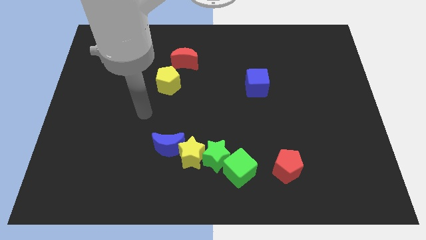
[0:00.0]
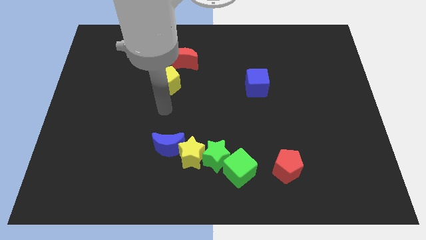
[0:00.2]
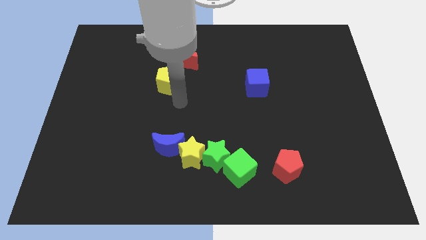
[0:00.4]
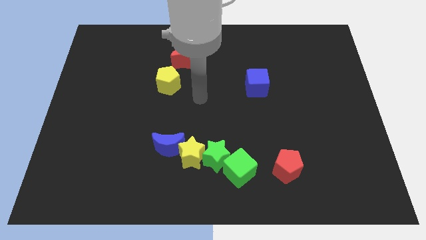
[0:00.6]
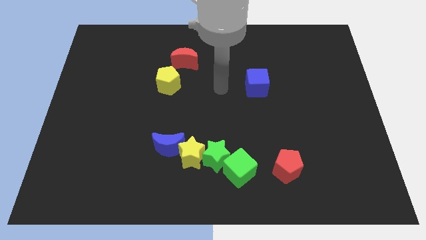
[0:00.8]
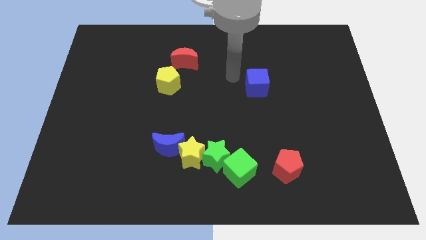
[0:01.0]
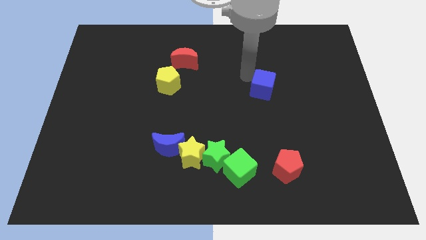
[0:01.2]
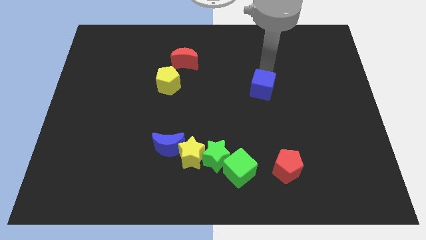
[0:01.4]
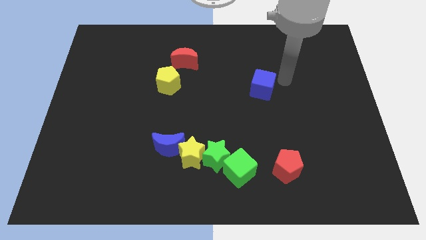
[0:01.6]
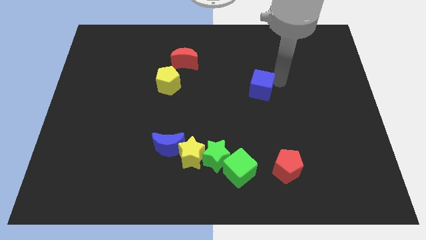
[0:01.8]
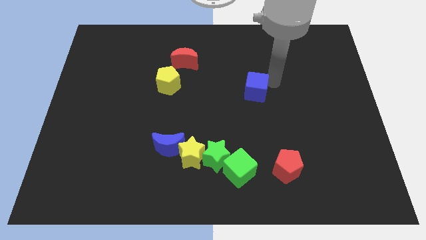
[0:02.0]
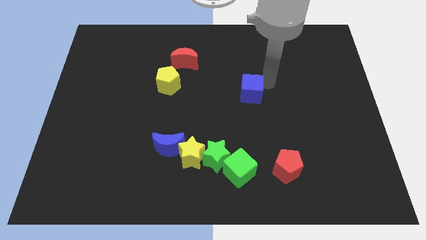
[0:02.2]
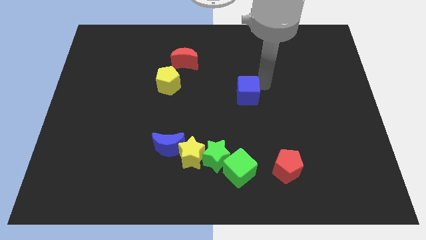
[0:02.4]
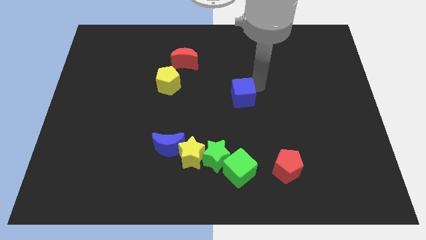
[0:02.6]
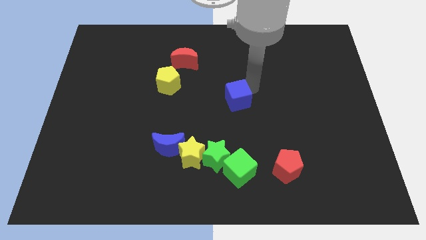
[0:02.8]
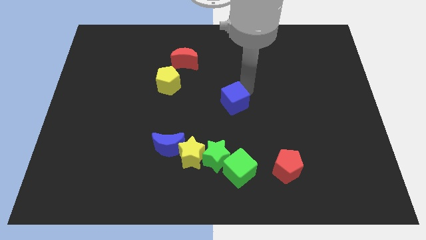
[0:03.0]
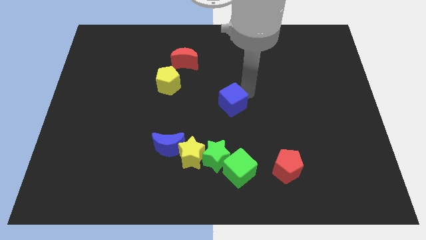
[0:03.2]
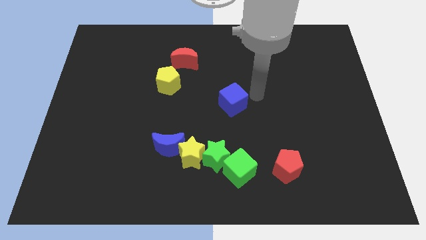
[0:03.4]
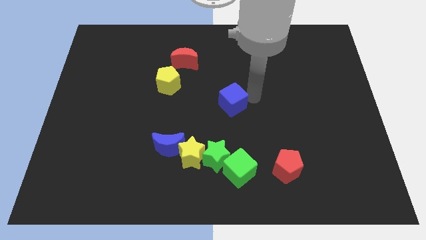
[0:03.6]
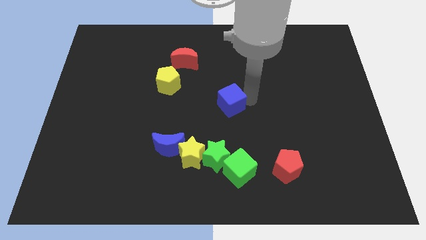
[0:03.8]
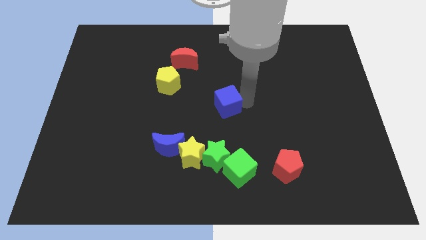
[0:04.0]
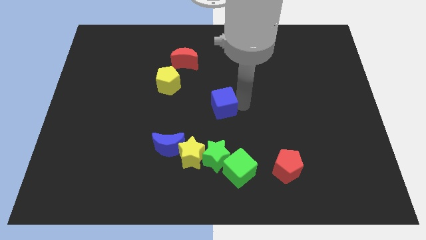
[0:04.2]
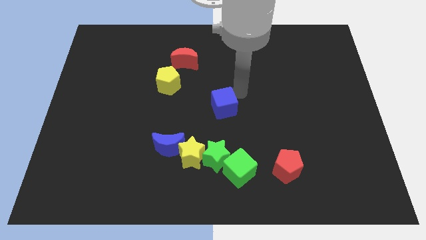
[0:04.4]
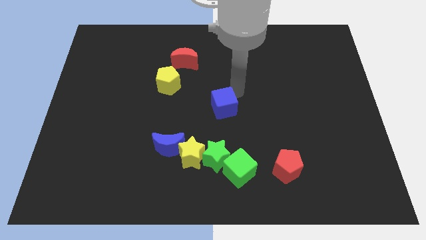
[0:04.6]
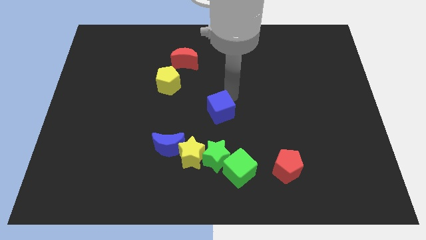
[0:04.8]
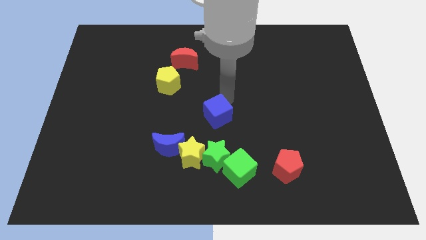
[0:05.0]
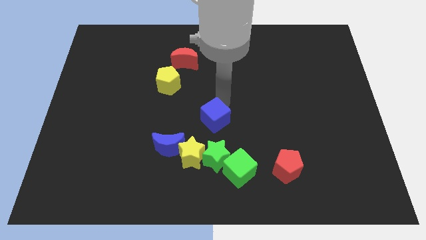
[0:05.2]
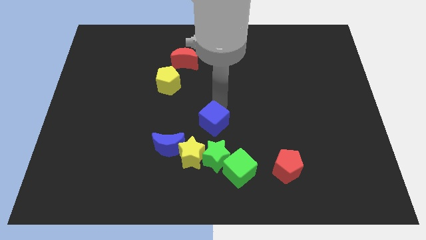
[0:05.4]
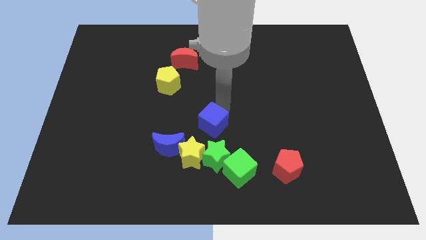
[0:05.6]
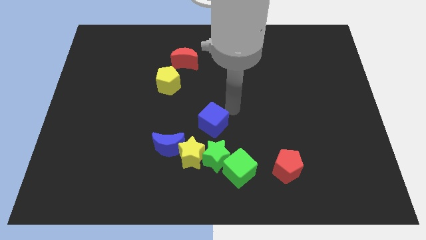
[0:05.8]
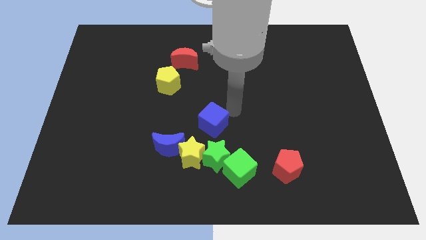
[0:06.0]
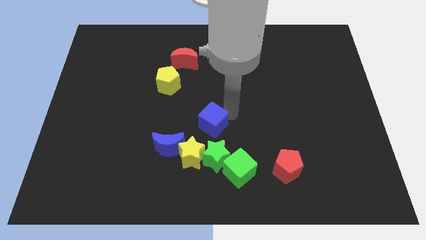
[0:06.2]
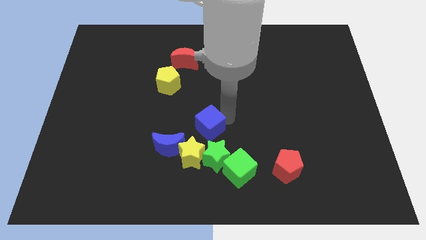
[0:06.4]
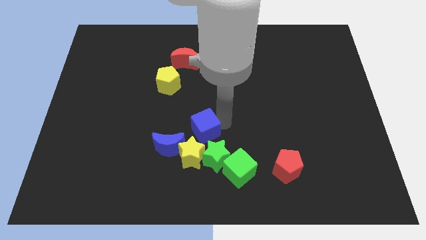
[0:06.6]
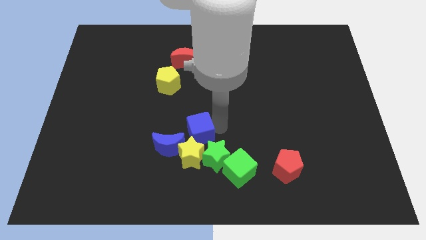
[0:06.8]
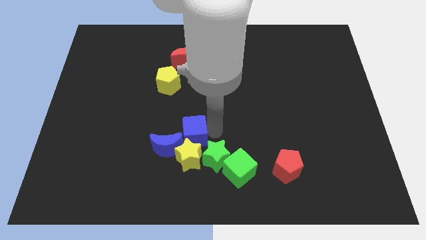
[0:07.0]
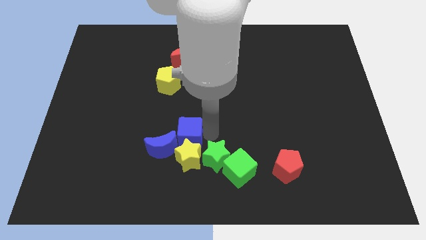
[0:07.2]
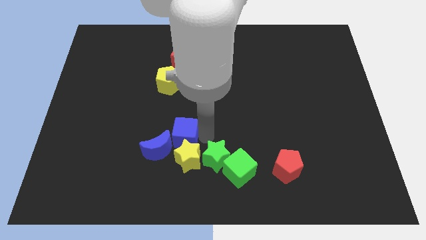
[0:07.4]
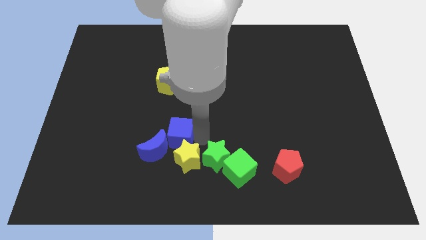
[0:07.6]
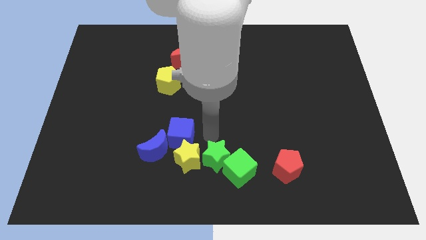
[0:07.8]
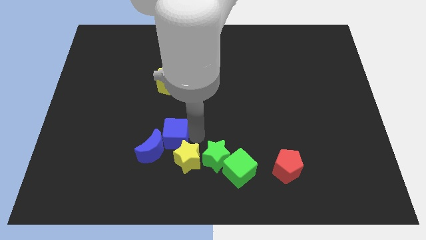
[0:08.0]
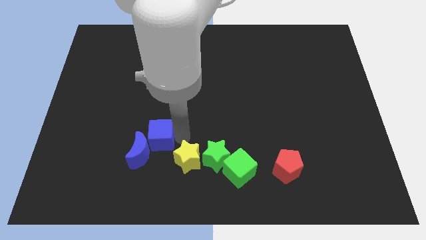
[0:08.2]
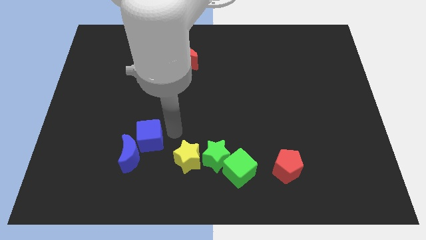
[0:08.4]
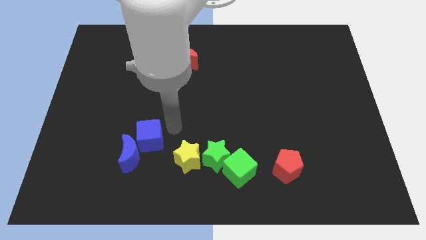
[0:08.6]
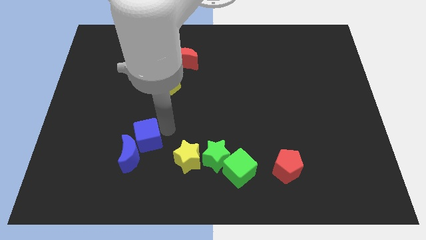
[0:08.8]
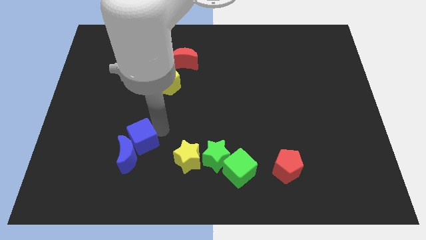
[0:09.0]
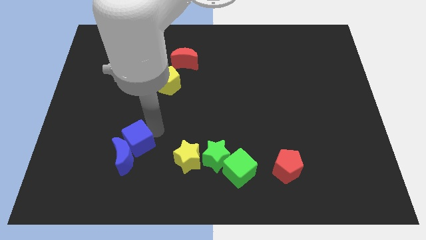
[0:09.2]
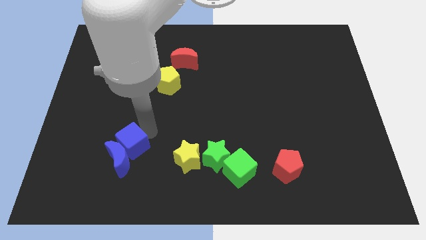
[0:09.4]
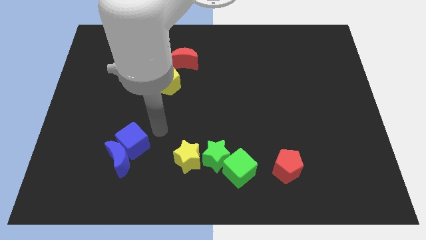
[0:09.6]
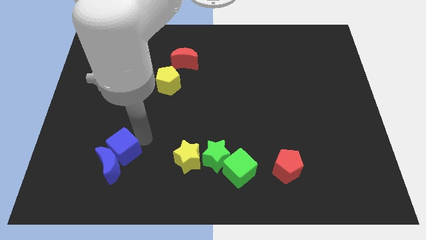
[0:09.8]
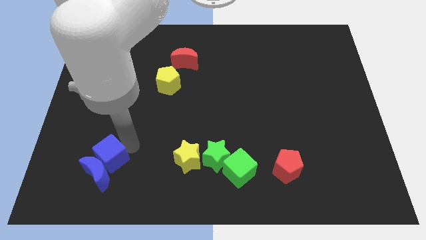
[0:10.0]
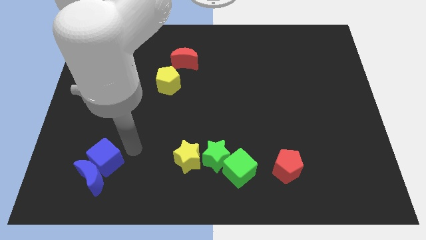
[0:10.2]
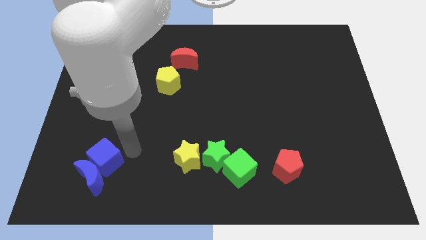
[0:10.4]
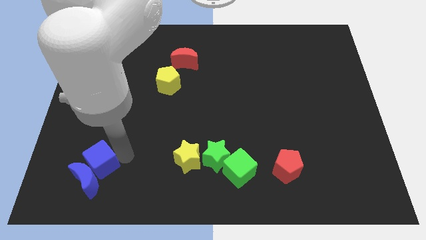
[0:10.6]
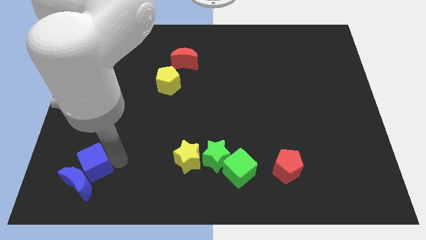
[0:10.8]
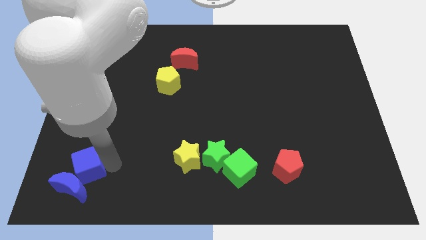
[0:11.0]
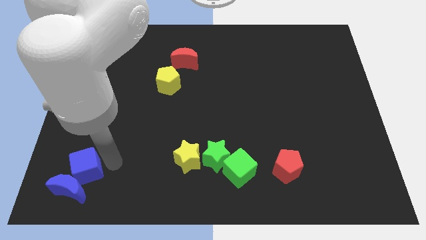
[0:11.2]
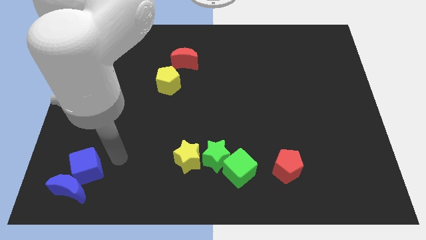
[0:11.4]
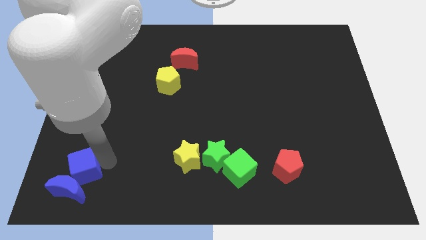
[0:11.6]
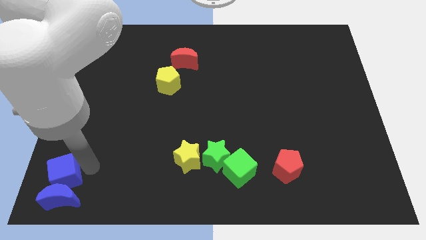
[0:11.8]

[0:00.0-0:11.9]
push the blue cube to the bottom left of the board

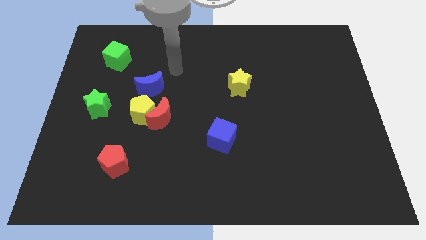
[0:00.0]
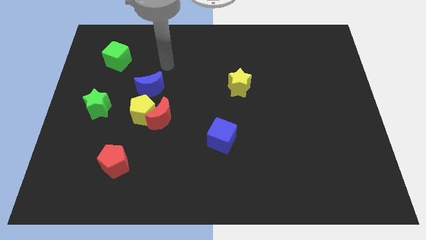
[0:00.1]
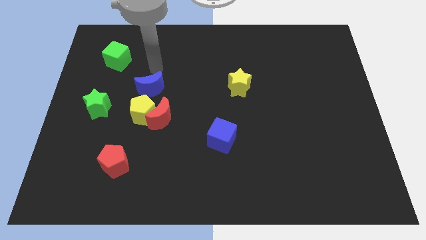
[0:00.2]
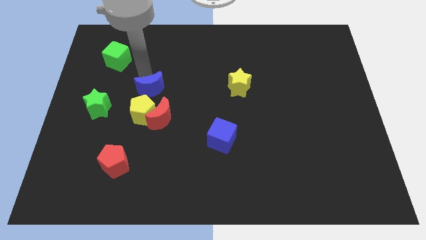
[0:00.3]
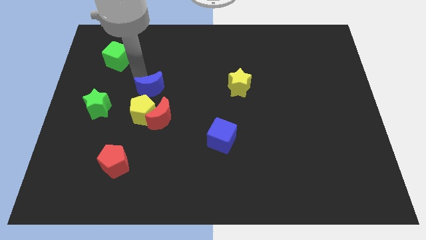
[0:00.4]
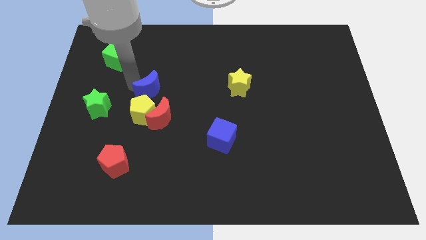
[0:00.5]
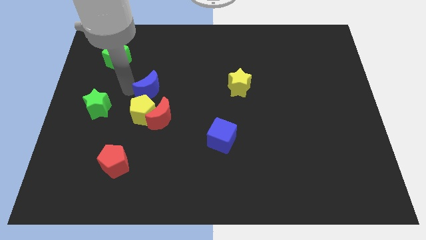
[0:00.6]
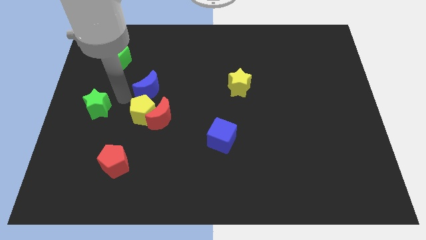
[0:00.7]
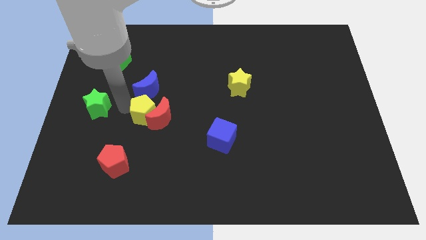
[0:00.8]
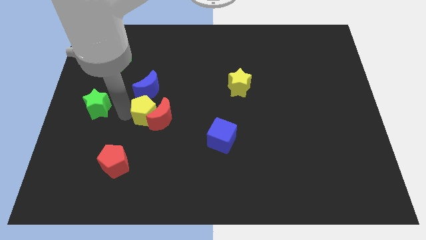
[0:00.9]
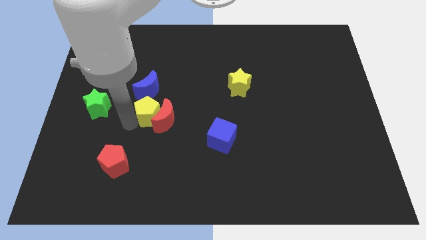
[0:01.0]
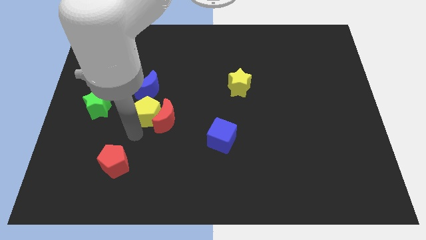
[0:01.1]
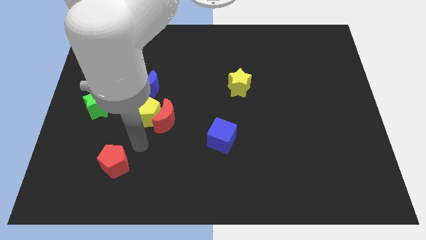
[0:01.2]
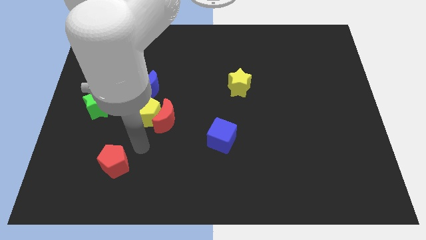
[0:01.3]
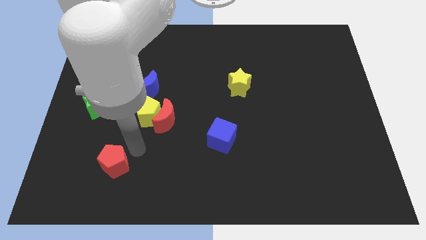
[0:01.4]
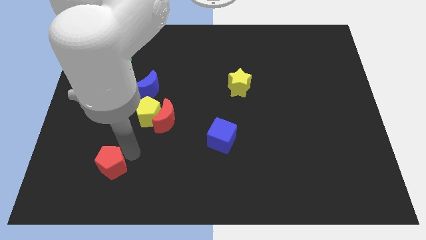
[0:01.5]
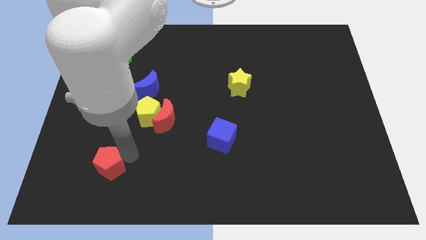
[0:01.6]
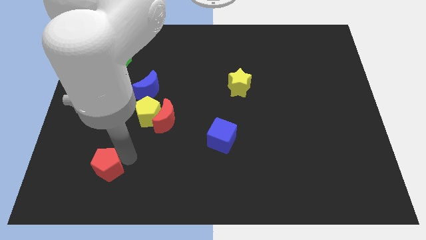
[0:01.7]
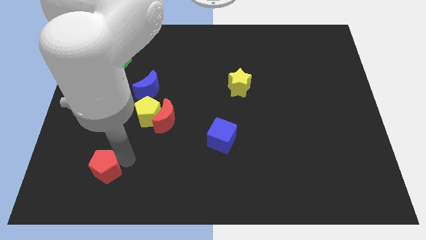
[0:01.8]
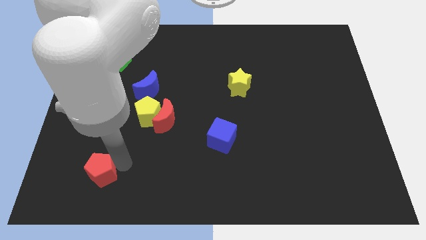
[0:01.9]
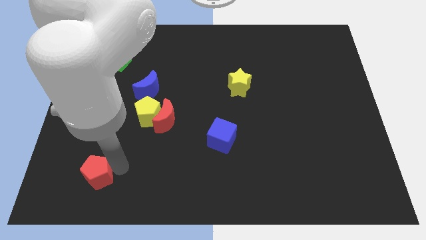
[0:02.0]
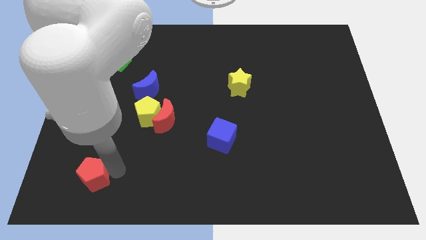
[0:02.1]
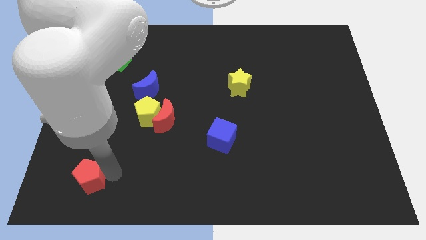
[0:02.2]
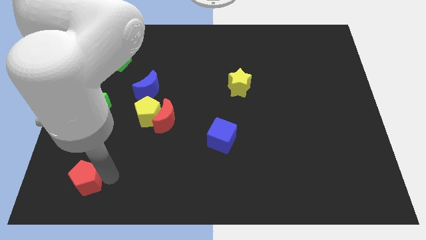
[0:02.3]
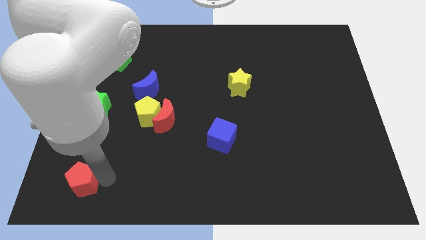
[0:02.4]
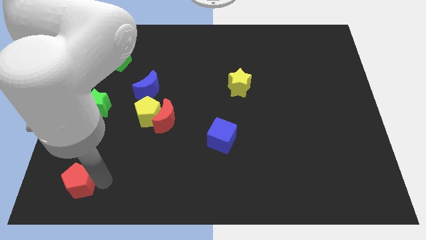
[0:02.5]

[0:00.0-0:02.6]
move the red pentagon to the bottom left
